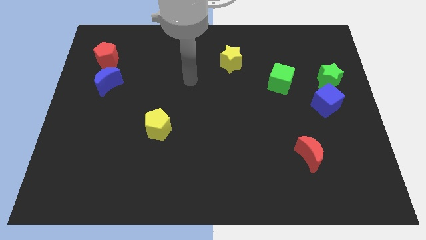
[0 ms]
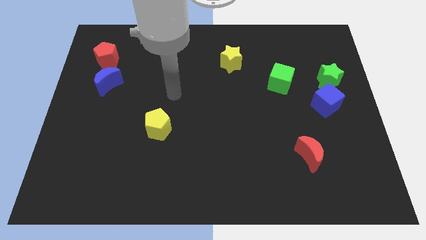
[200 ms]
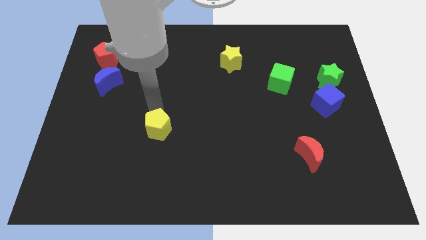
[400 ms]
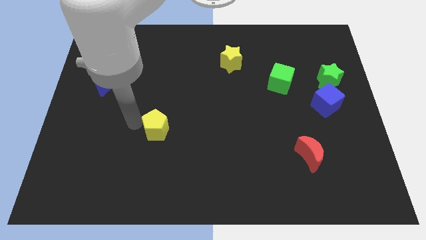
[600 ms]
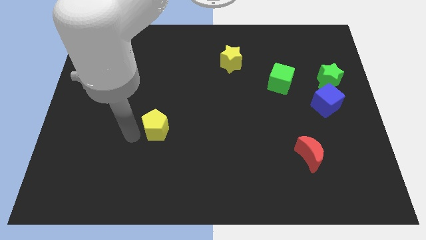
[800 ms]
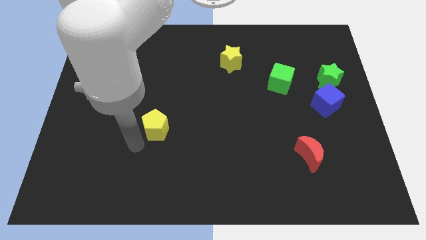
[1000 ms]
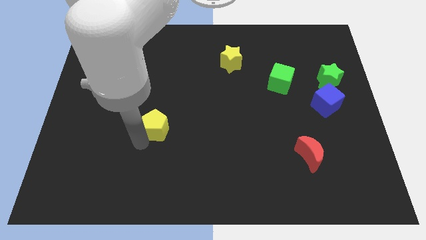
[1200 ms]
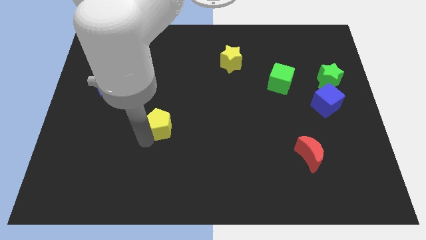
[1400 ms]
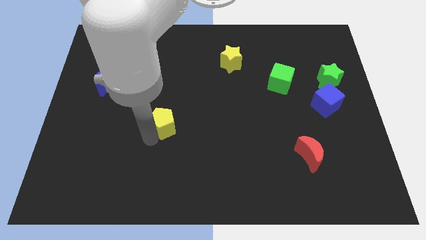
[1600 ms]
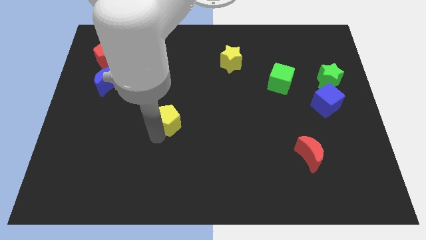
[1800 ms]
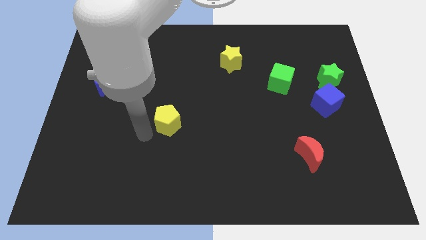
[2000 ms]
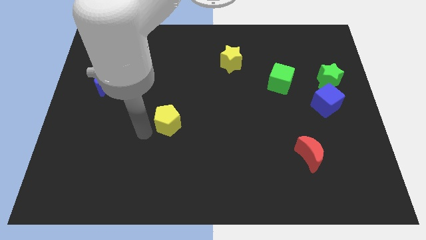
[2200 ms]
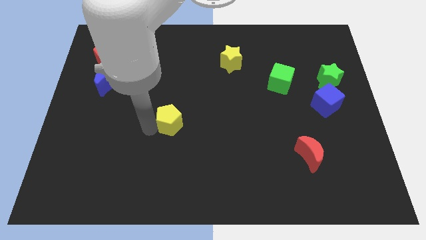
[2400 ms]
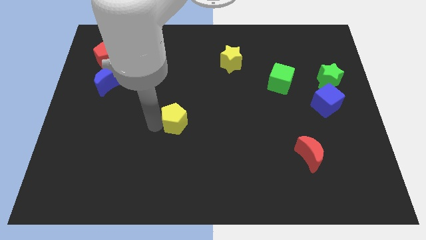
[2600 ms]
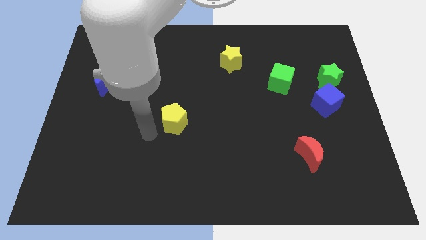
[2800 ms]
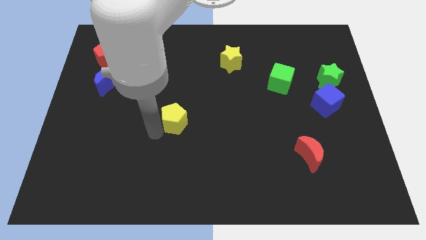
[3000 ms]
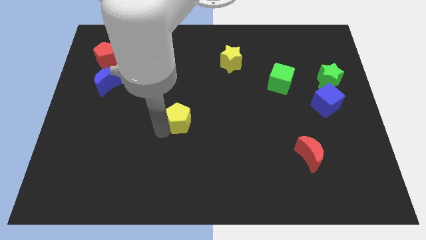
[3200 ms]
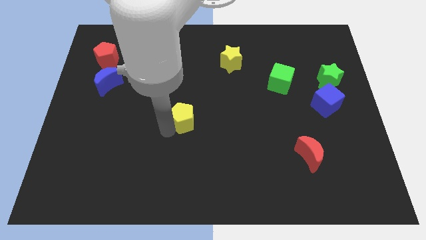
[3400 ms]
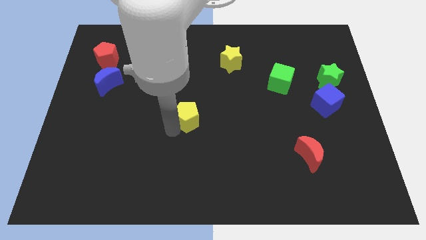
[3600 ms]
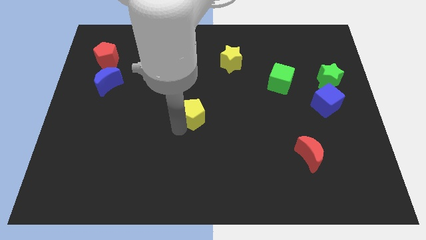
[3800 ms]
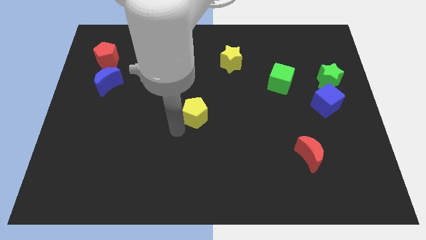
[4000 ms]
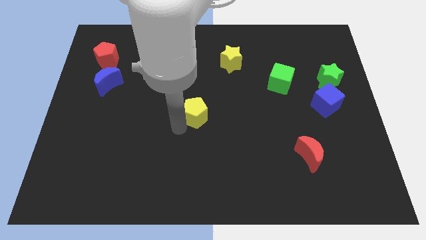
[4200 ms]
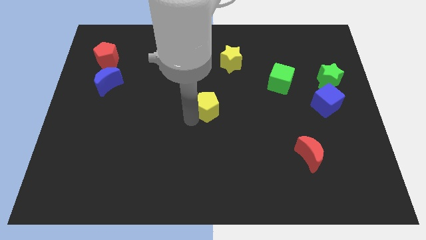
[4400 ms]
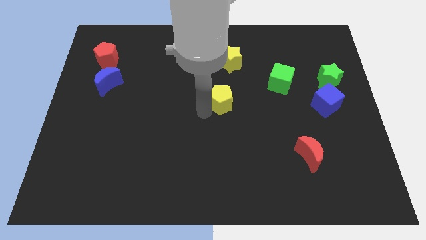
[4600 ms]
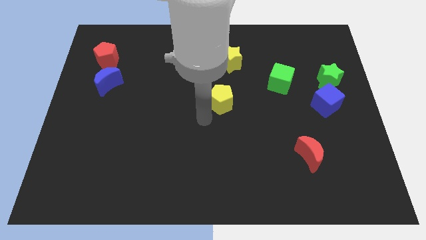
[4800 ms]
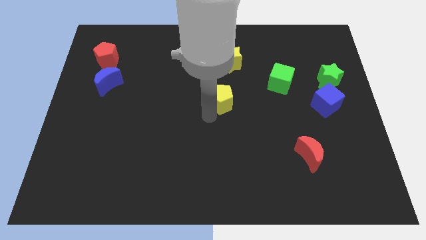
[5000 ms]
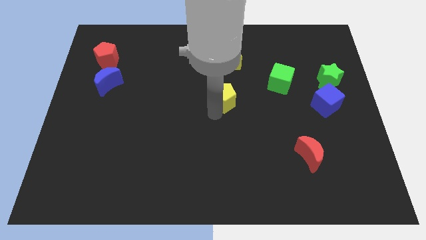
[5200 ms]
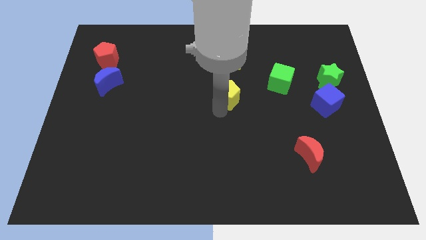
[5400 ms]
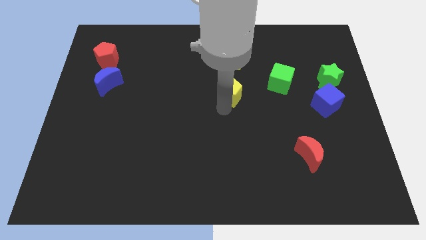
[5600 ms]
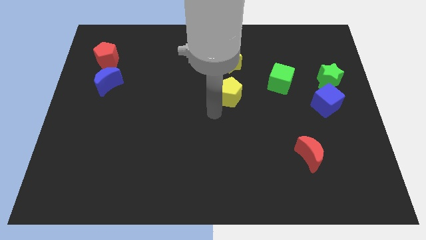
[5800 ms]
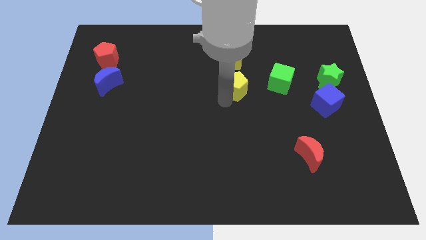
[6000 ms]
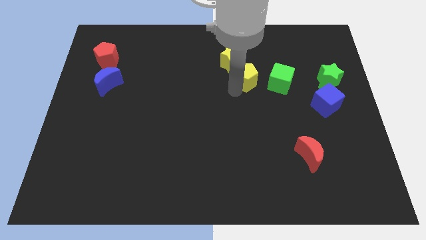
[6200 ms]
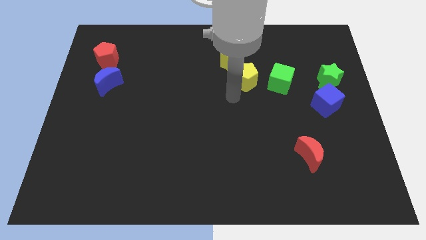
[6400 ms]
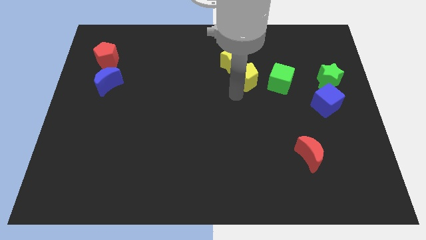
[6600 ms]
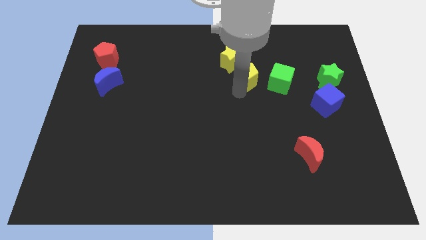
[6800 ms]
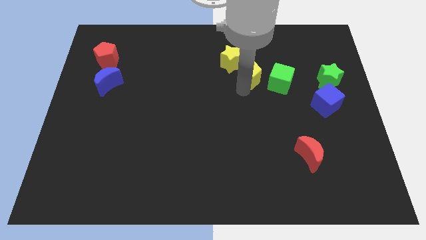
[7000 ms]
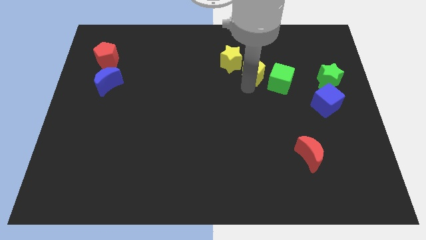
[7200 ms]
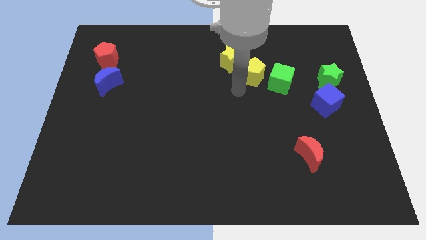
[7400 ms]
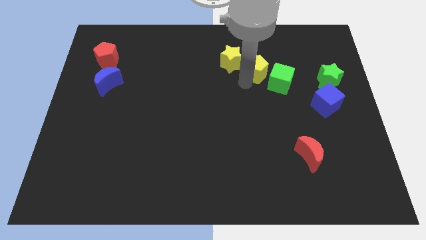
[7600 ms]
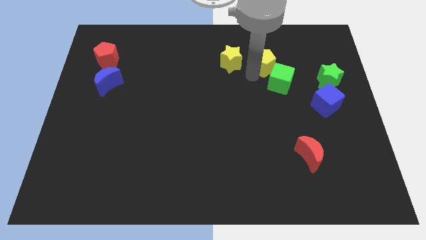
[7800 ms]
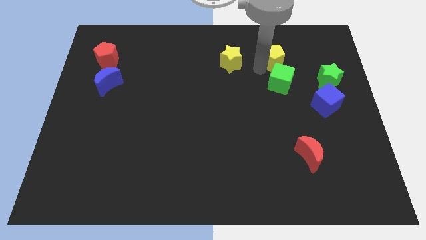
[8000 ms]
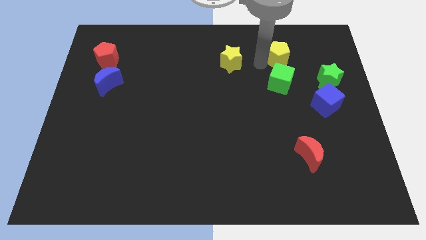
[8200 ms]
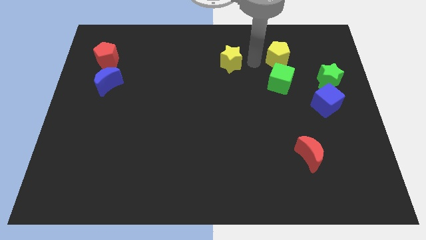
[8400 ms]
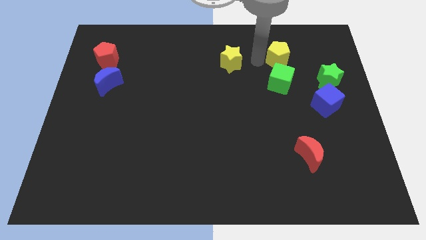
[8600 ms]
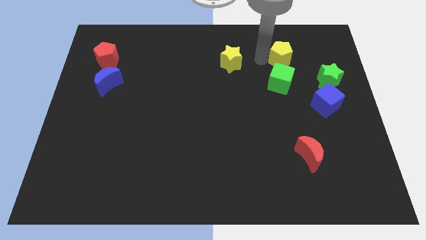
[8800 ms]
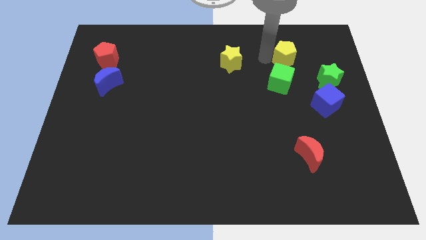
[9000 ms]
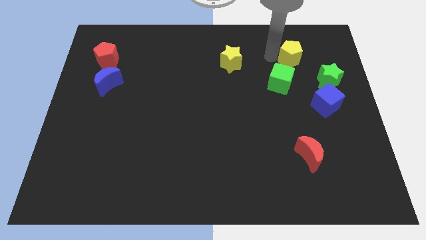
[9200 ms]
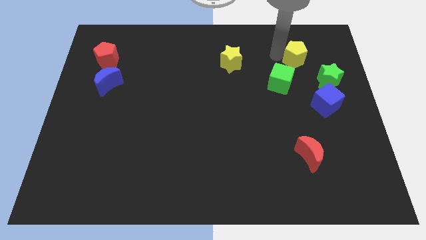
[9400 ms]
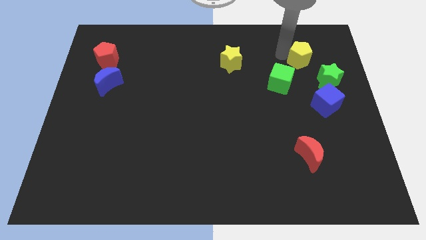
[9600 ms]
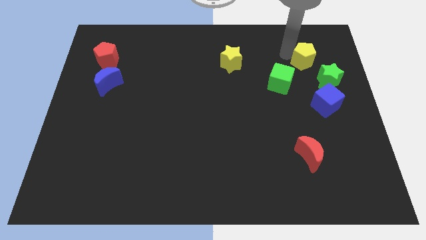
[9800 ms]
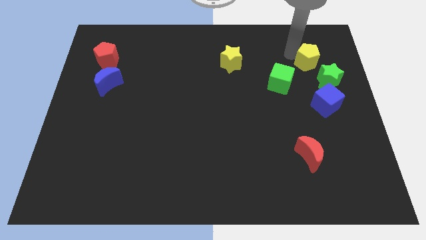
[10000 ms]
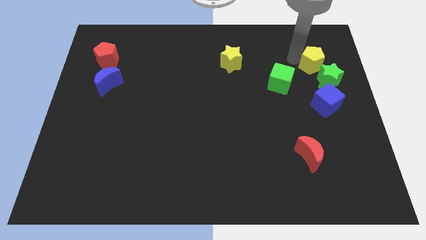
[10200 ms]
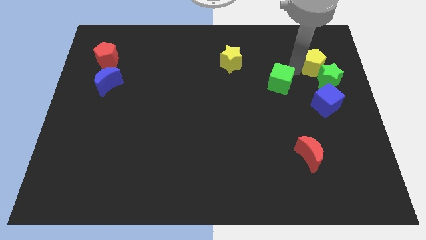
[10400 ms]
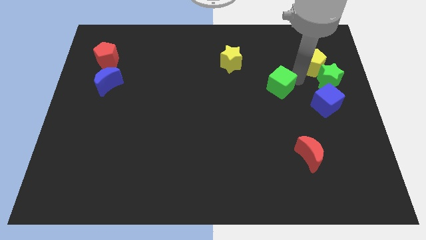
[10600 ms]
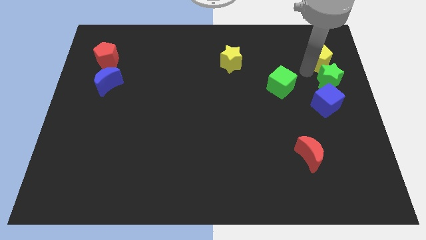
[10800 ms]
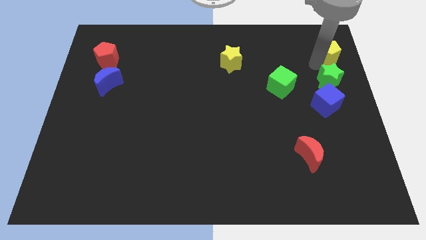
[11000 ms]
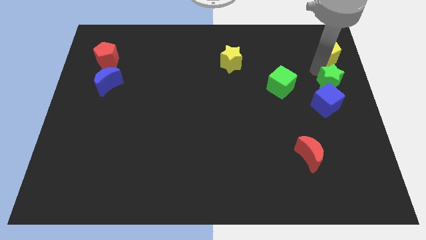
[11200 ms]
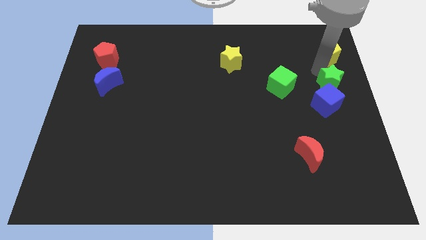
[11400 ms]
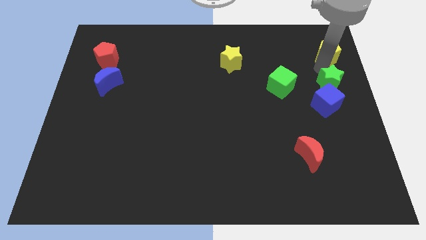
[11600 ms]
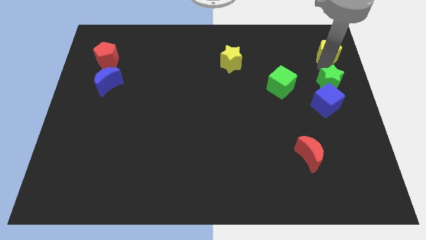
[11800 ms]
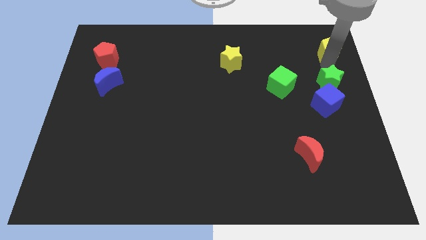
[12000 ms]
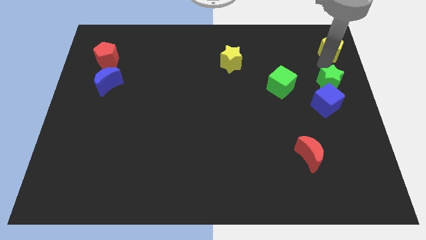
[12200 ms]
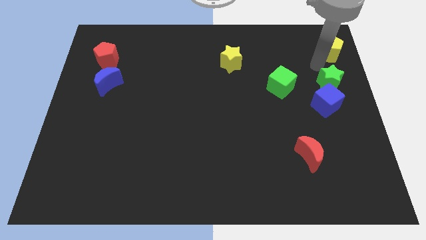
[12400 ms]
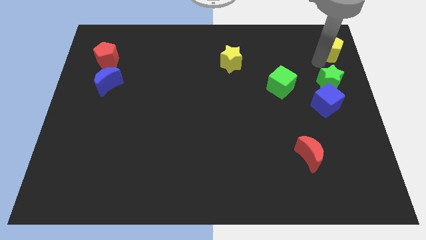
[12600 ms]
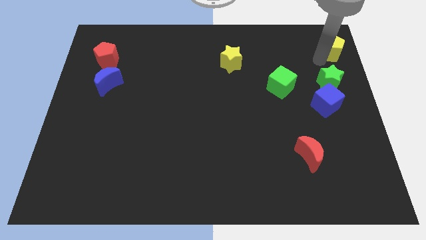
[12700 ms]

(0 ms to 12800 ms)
slide the yellow pentagon to the upper right corner

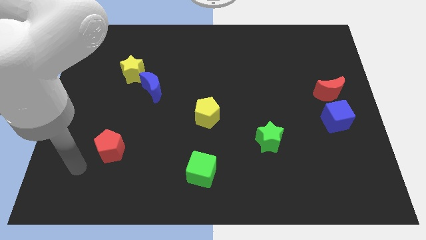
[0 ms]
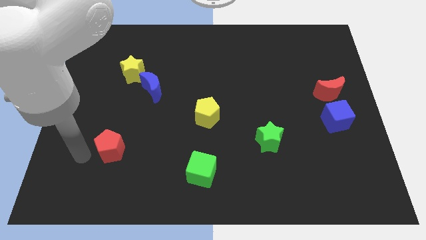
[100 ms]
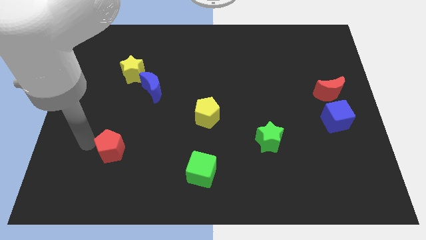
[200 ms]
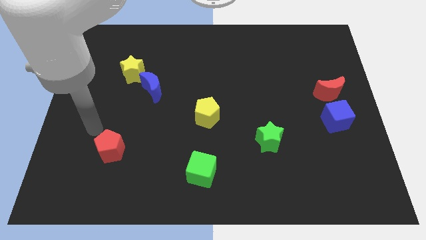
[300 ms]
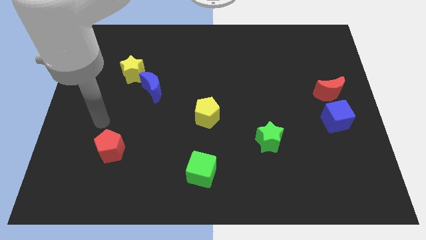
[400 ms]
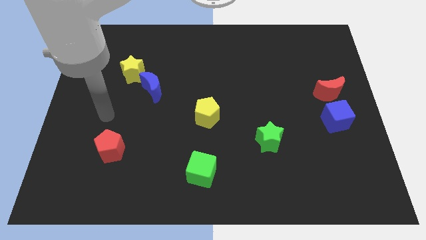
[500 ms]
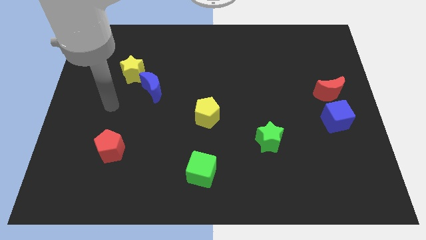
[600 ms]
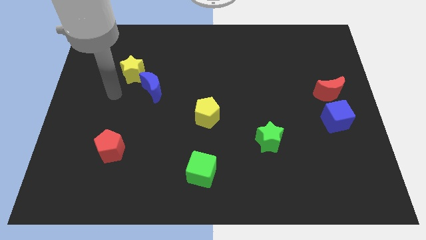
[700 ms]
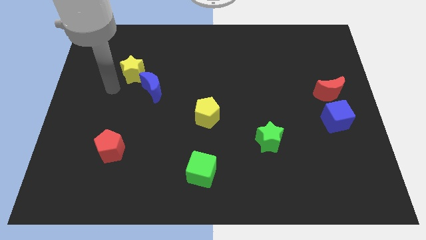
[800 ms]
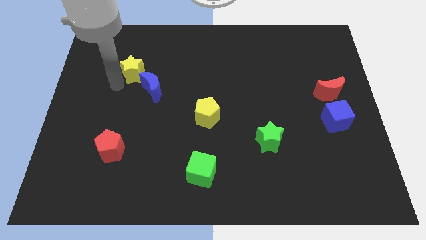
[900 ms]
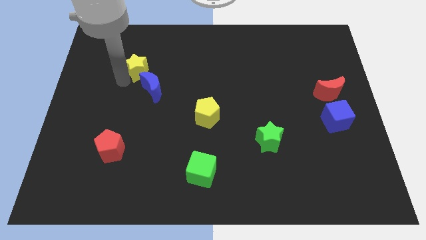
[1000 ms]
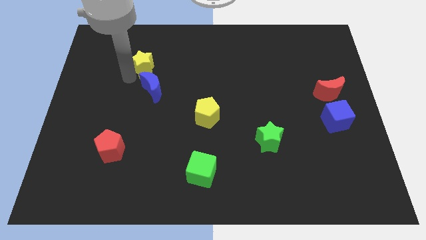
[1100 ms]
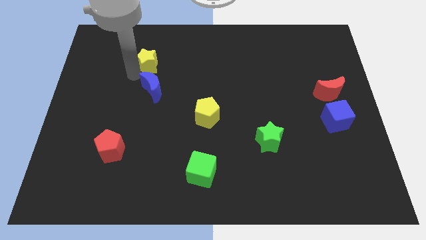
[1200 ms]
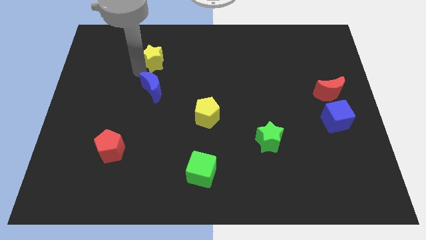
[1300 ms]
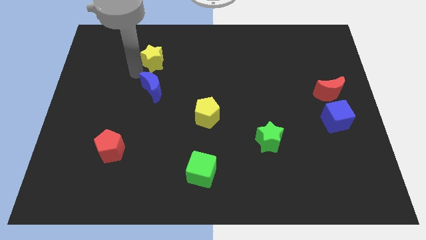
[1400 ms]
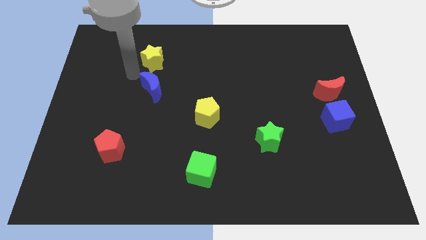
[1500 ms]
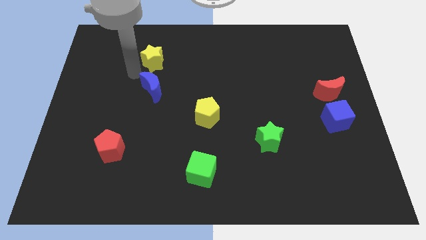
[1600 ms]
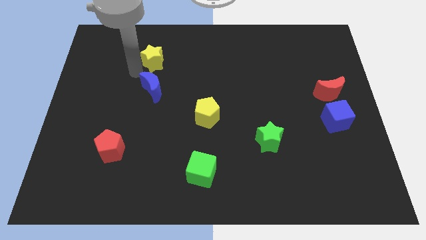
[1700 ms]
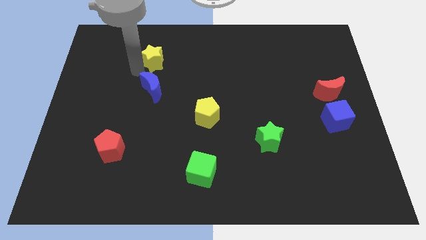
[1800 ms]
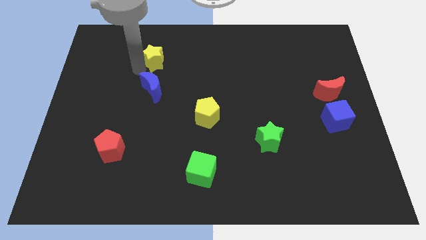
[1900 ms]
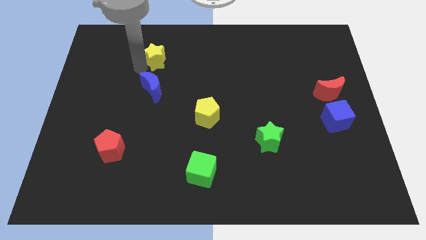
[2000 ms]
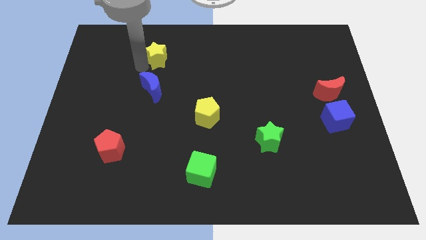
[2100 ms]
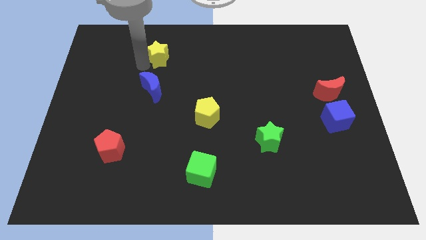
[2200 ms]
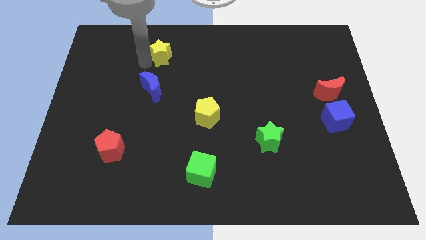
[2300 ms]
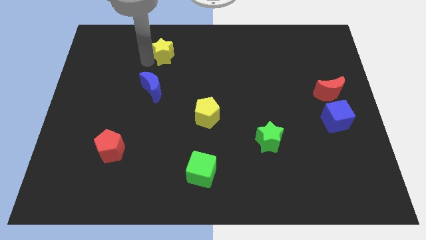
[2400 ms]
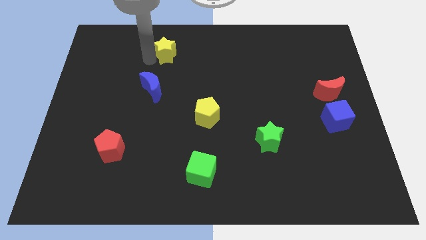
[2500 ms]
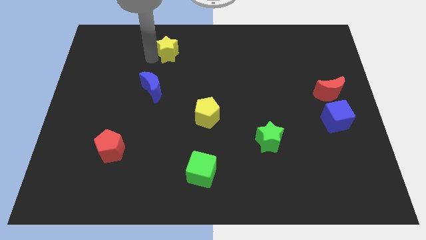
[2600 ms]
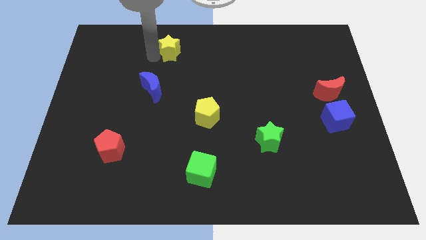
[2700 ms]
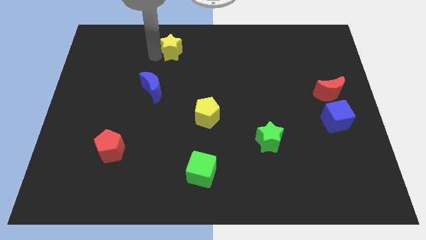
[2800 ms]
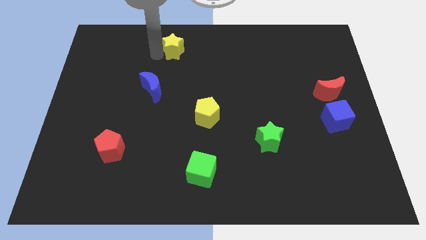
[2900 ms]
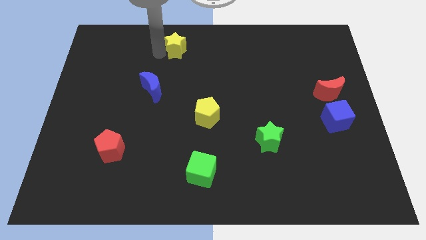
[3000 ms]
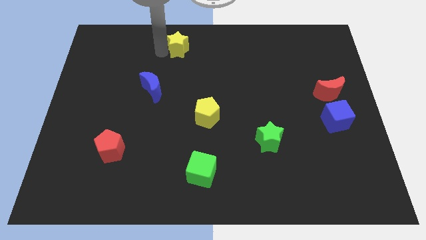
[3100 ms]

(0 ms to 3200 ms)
put the yellow star to the top side
